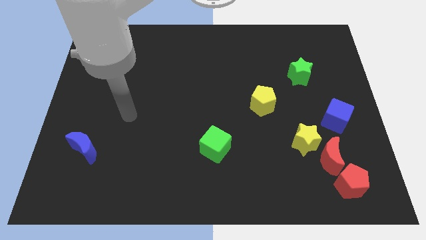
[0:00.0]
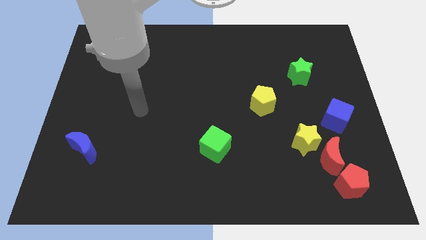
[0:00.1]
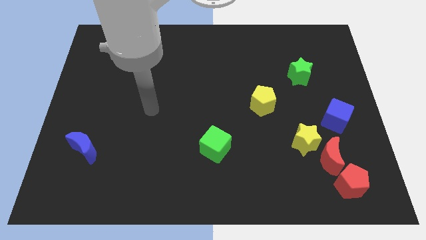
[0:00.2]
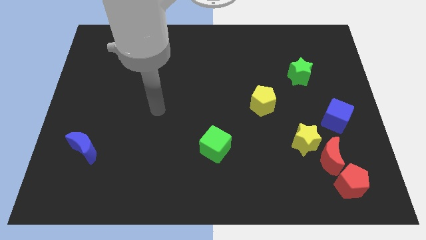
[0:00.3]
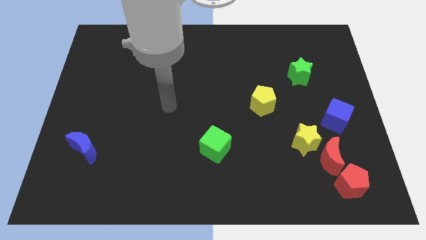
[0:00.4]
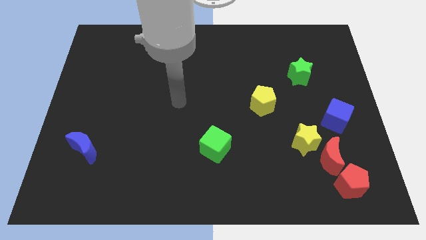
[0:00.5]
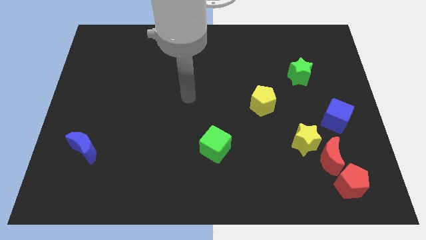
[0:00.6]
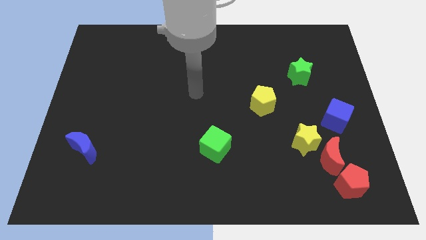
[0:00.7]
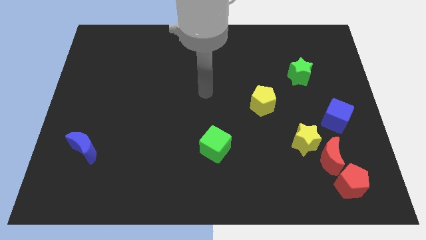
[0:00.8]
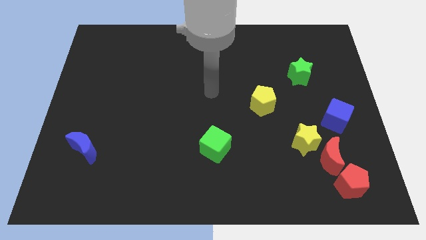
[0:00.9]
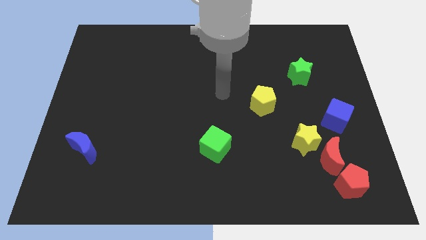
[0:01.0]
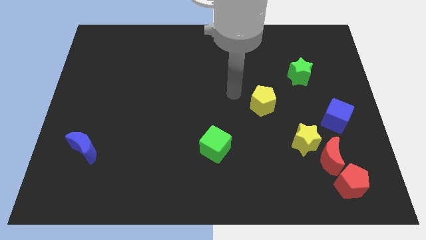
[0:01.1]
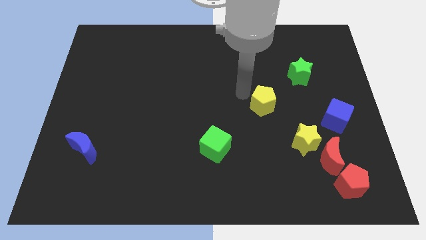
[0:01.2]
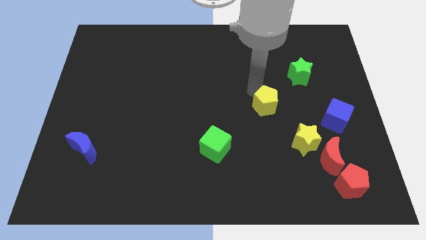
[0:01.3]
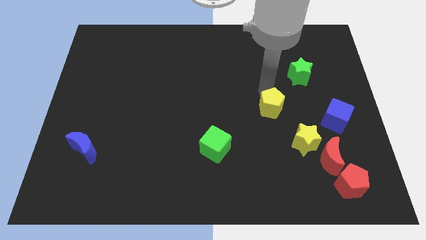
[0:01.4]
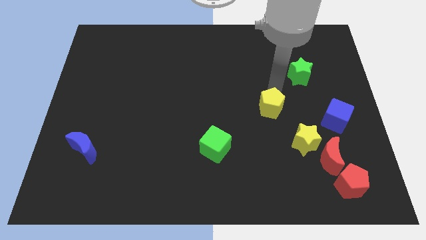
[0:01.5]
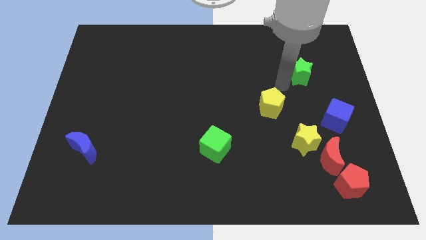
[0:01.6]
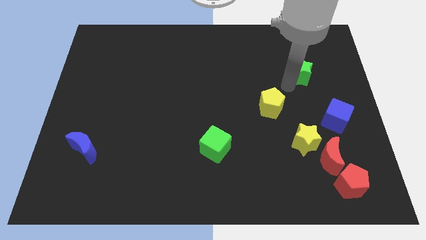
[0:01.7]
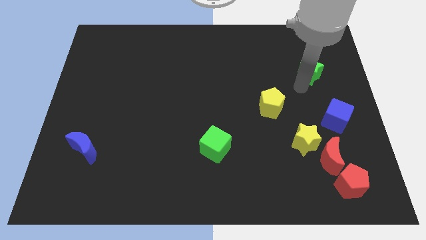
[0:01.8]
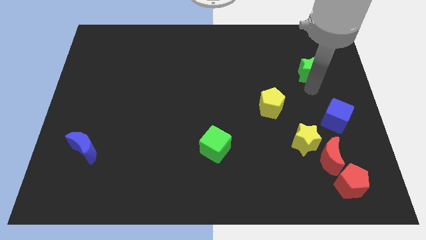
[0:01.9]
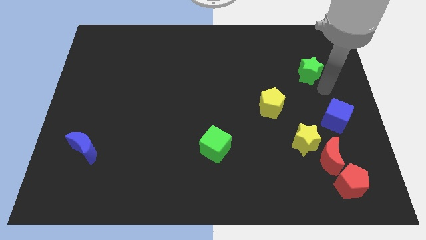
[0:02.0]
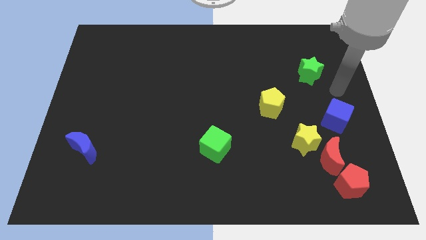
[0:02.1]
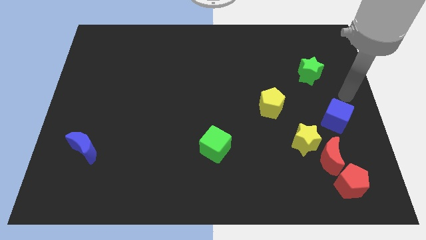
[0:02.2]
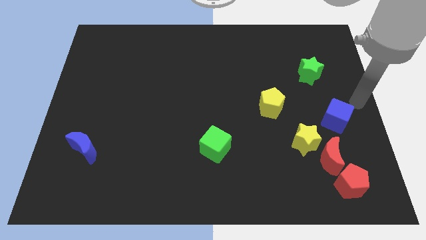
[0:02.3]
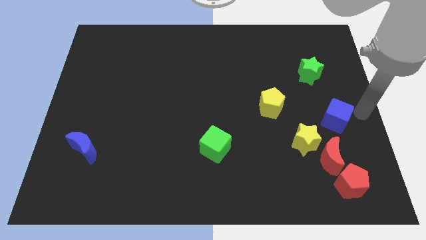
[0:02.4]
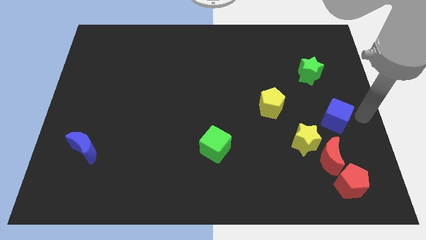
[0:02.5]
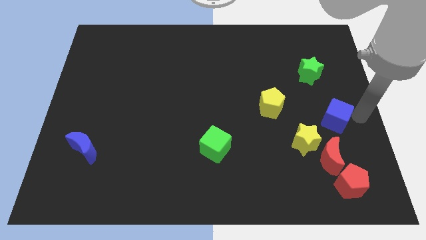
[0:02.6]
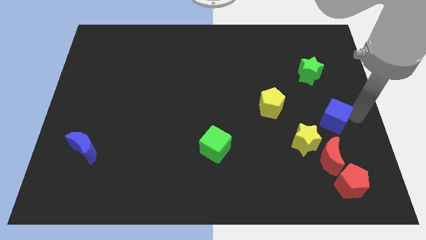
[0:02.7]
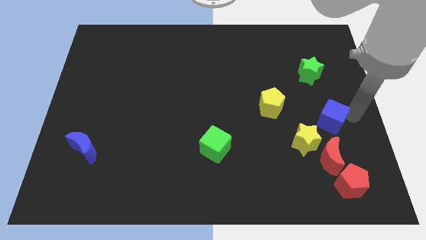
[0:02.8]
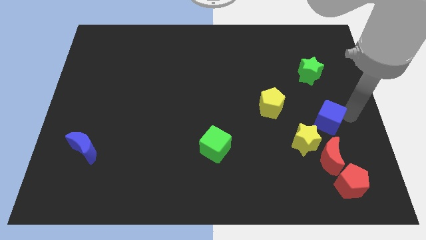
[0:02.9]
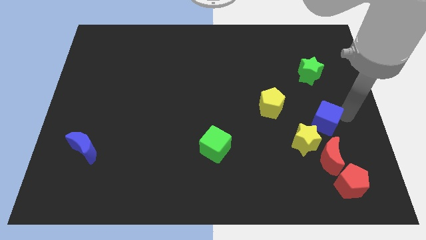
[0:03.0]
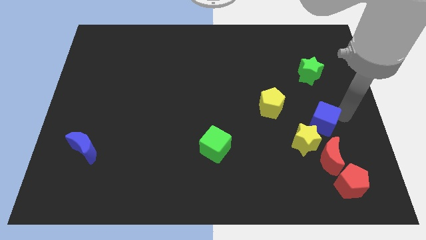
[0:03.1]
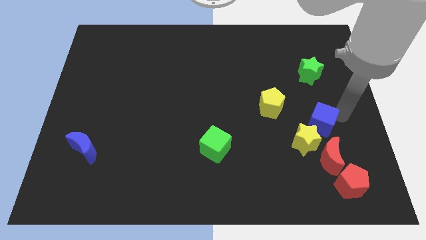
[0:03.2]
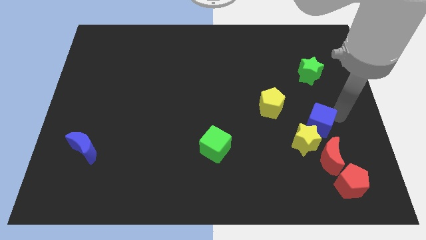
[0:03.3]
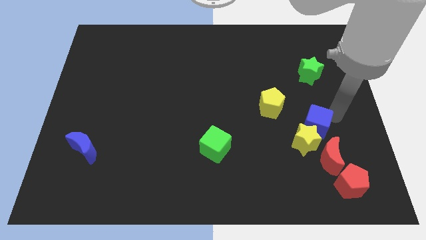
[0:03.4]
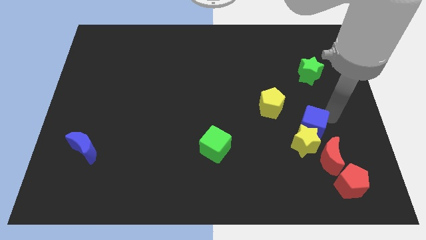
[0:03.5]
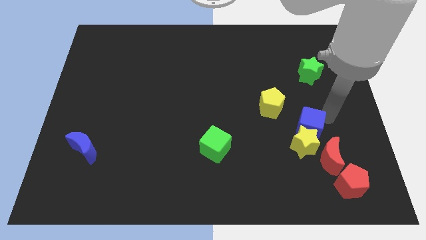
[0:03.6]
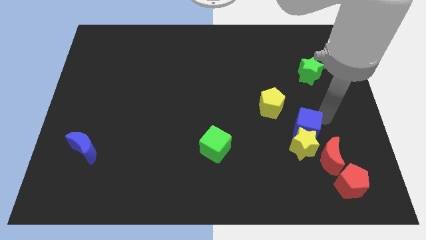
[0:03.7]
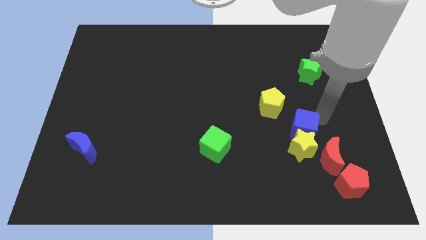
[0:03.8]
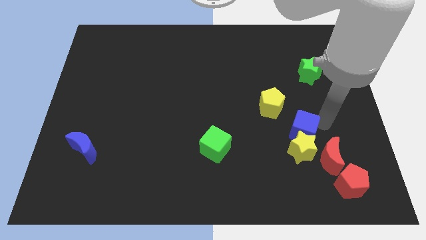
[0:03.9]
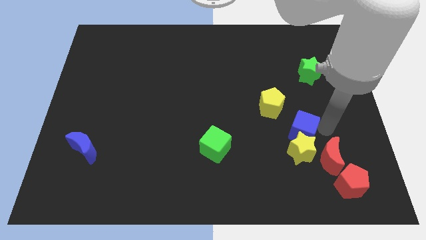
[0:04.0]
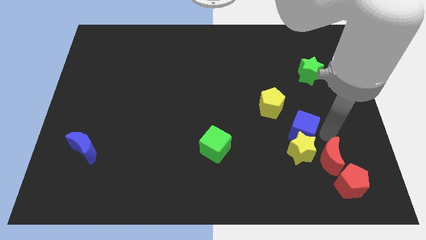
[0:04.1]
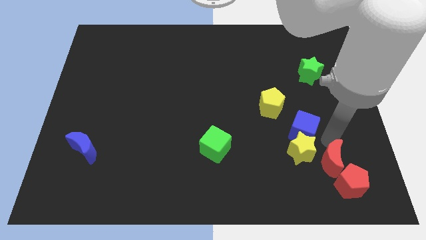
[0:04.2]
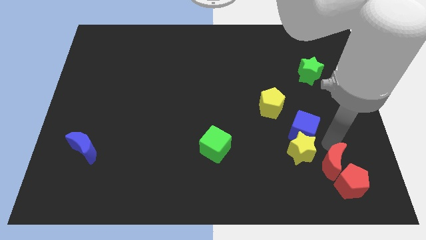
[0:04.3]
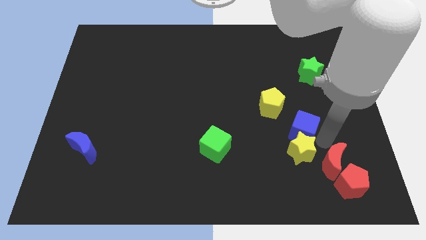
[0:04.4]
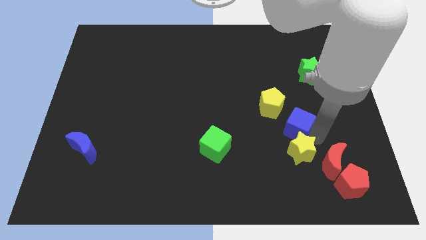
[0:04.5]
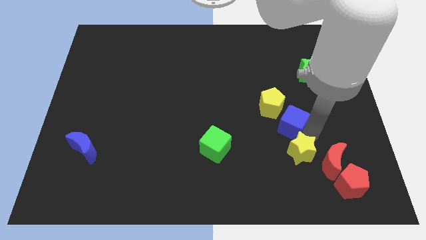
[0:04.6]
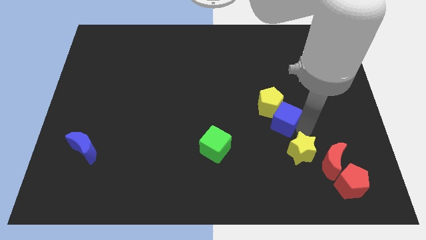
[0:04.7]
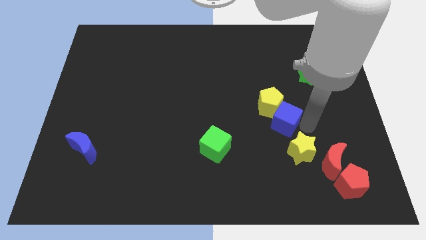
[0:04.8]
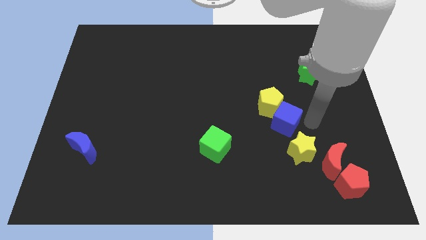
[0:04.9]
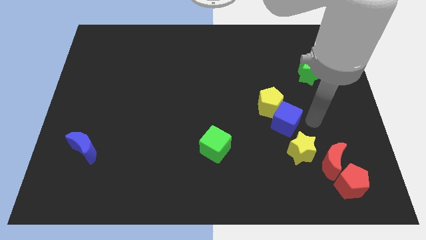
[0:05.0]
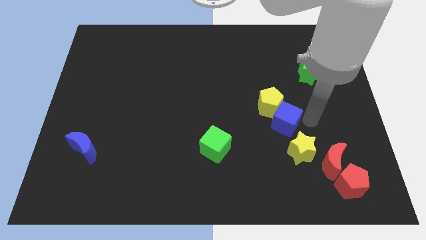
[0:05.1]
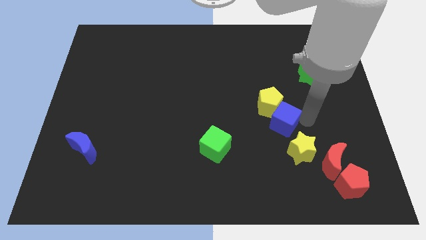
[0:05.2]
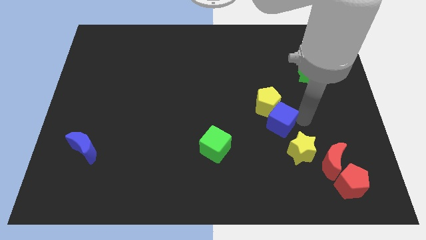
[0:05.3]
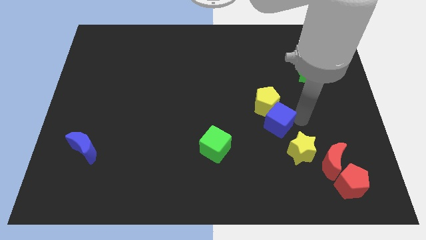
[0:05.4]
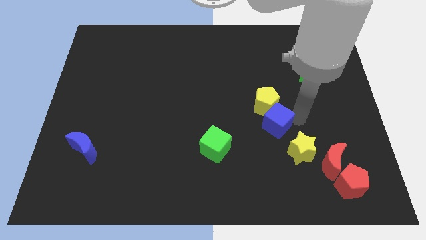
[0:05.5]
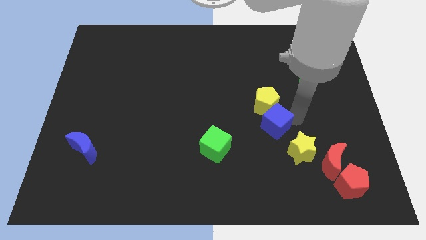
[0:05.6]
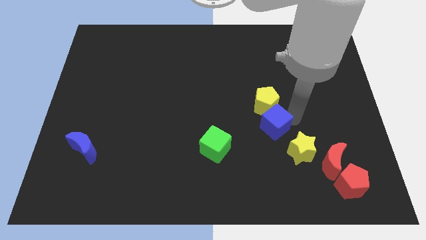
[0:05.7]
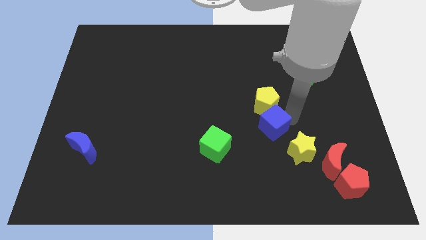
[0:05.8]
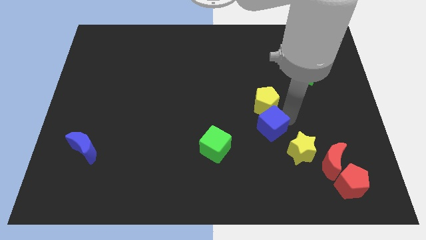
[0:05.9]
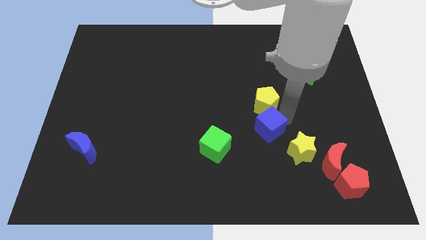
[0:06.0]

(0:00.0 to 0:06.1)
put the blue cube diagonally down and to the left of the yellow pentagon

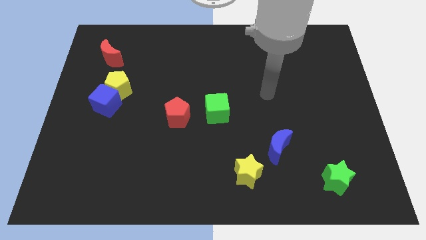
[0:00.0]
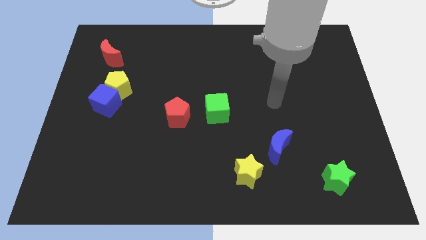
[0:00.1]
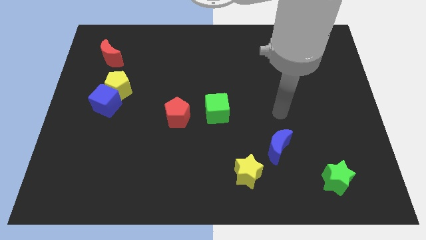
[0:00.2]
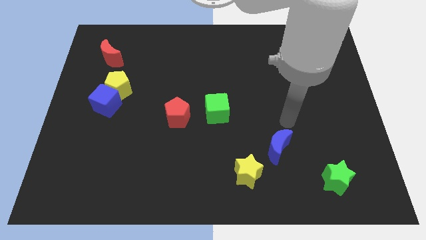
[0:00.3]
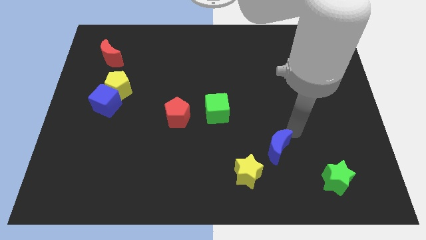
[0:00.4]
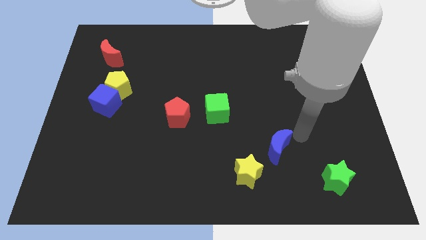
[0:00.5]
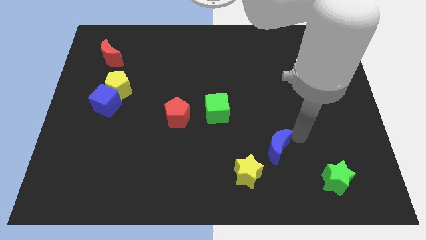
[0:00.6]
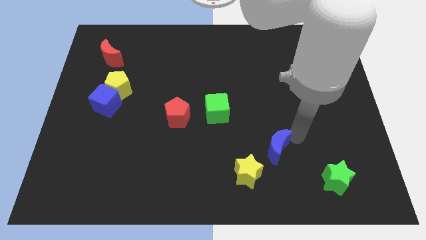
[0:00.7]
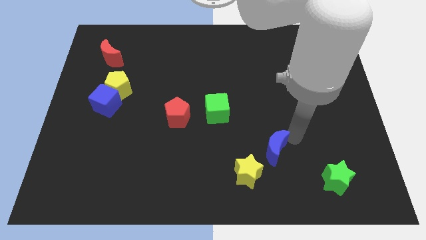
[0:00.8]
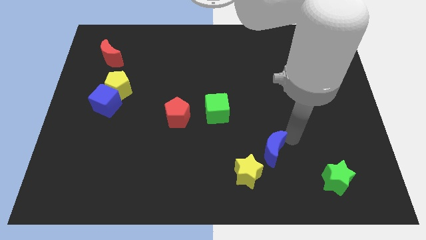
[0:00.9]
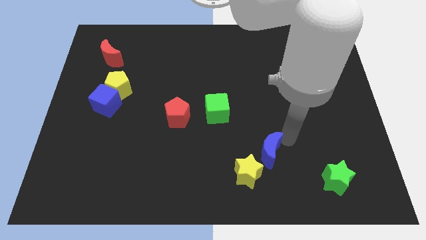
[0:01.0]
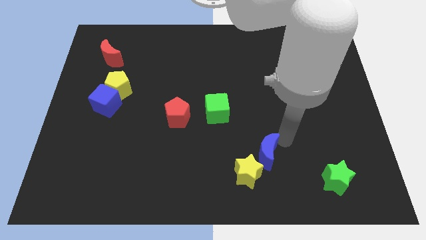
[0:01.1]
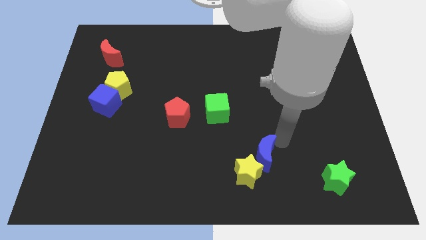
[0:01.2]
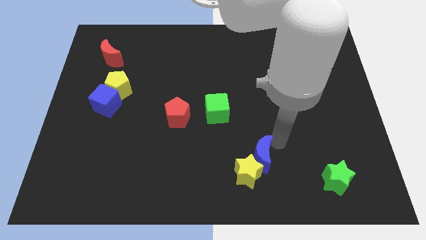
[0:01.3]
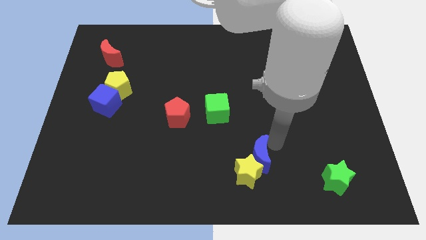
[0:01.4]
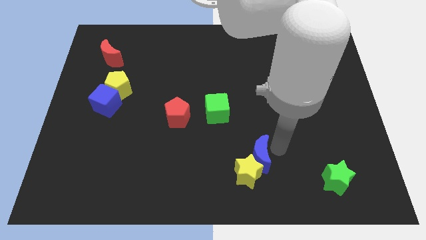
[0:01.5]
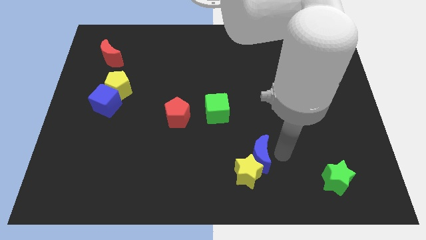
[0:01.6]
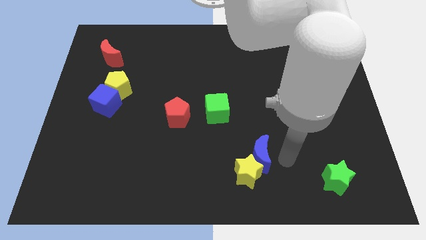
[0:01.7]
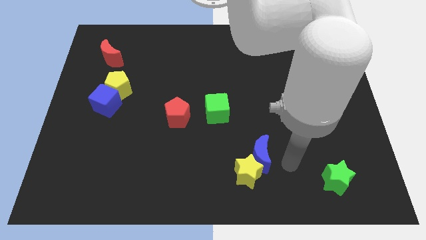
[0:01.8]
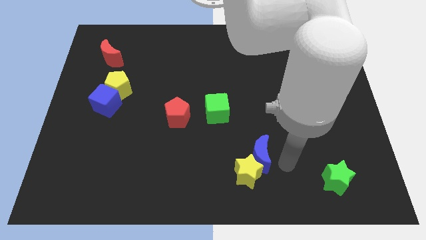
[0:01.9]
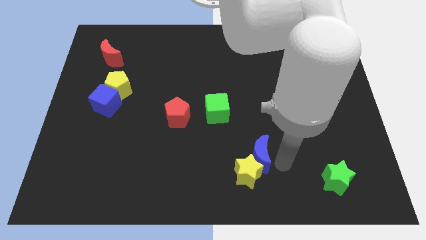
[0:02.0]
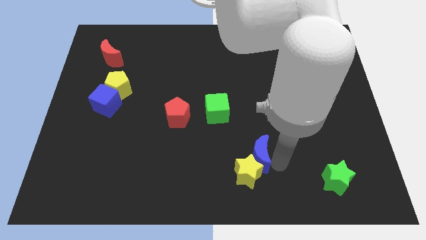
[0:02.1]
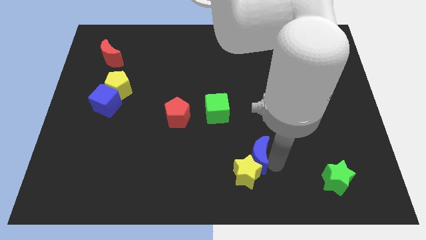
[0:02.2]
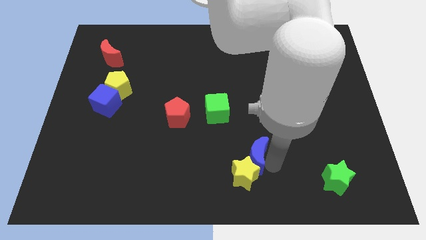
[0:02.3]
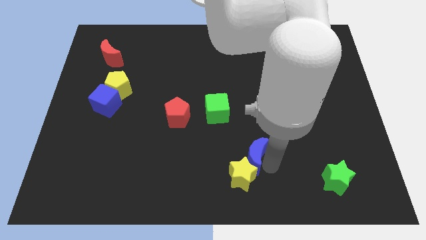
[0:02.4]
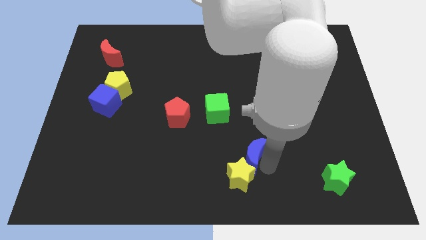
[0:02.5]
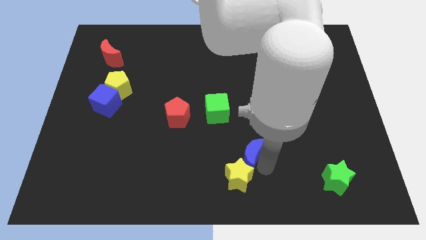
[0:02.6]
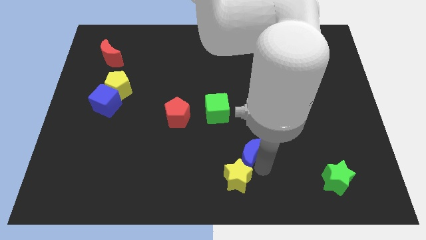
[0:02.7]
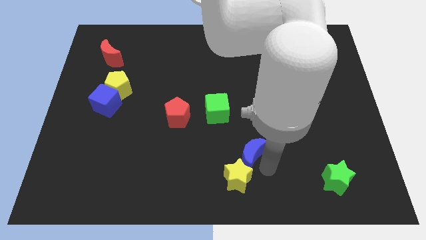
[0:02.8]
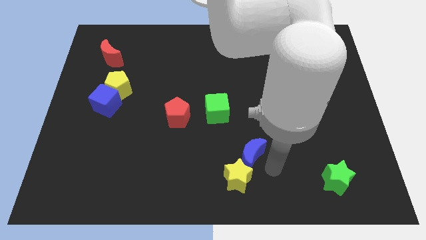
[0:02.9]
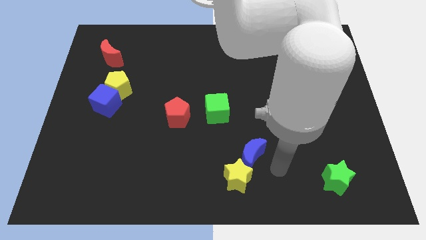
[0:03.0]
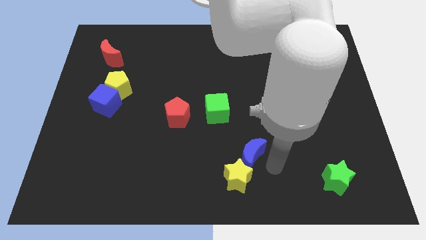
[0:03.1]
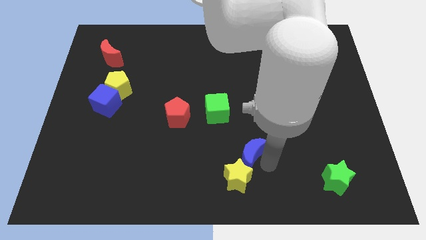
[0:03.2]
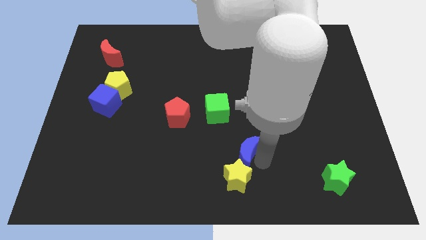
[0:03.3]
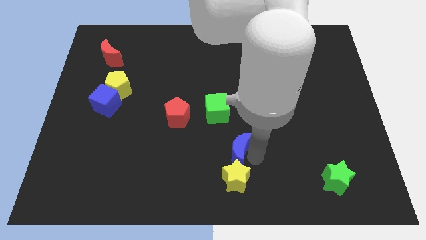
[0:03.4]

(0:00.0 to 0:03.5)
move the blue moon to the bottom of the green cube
